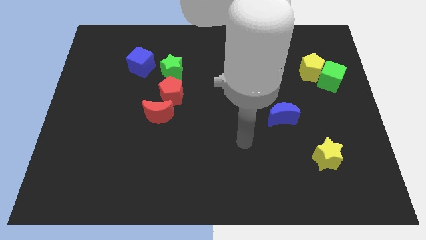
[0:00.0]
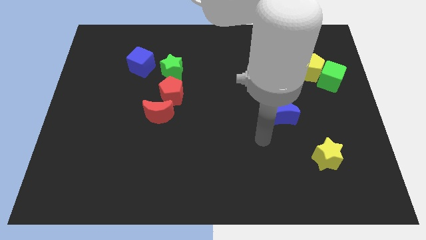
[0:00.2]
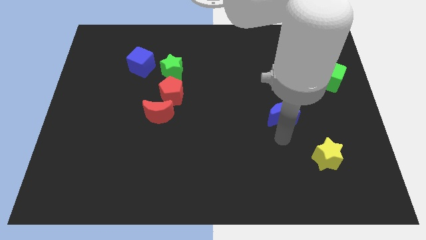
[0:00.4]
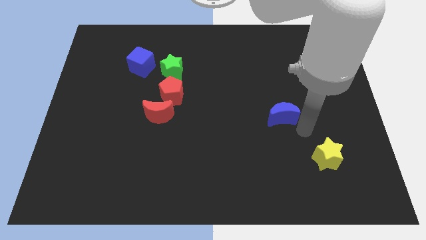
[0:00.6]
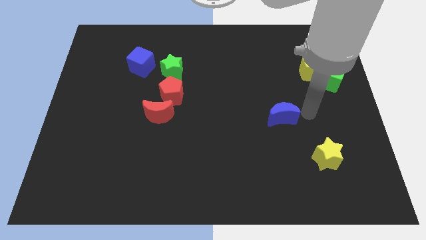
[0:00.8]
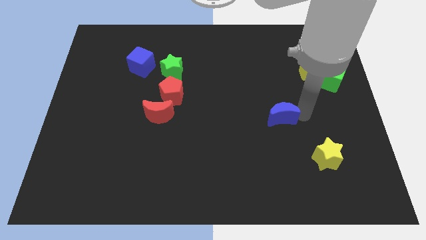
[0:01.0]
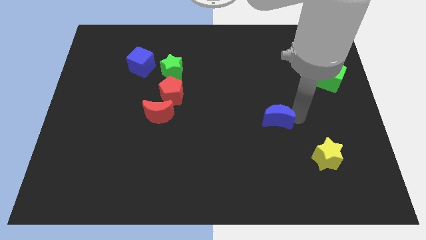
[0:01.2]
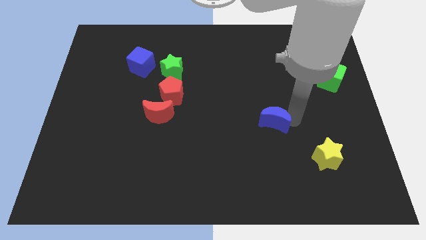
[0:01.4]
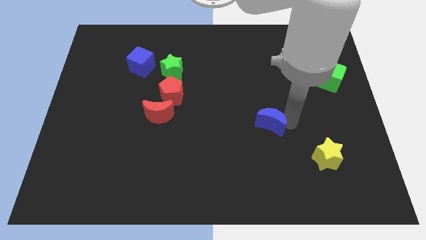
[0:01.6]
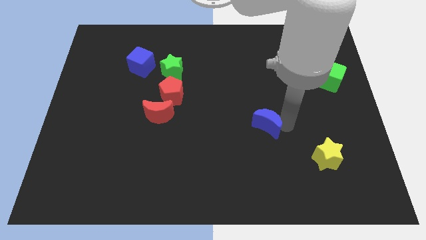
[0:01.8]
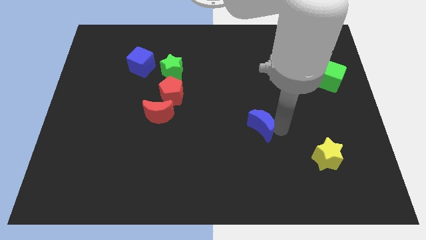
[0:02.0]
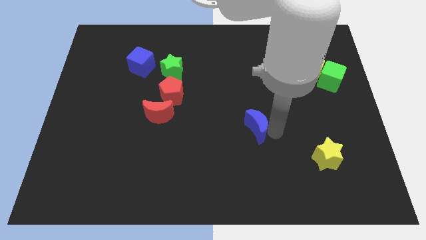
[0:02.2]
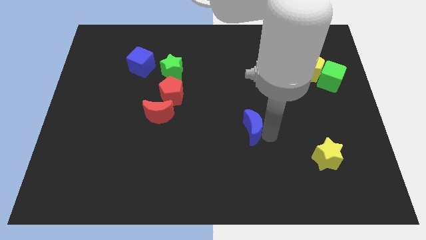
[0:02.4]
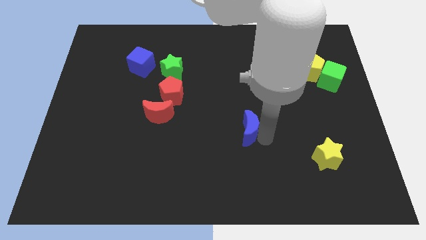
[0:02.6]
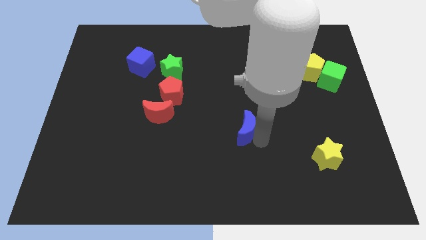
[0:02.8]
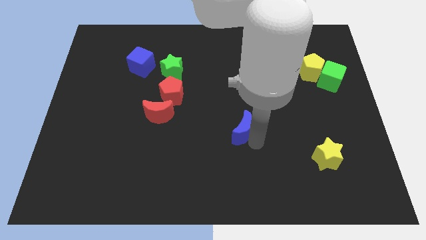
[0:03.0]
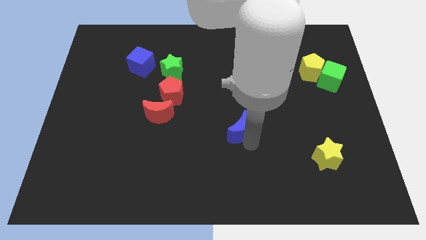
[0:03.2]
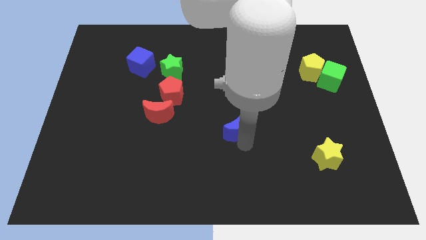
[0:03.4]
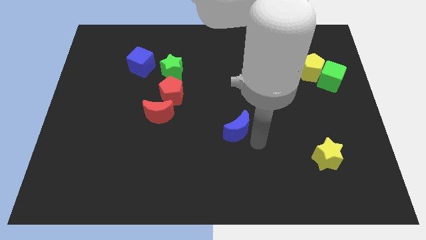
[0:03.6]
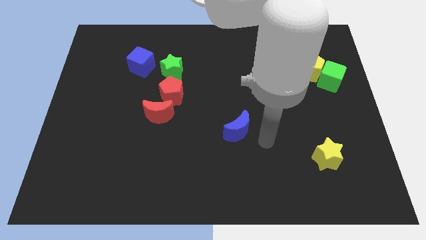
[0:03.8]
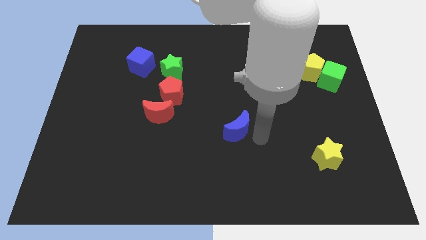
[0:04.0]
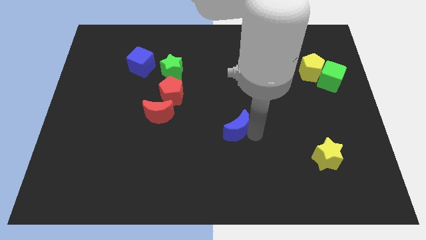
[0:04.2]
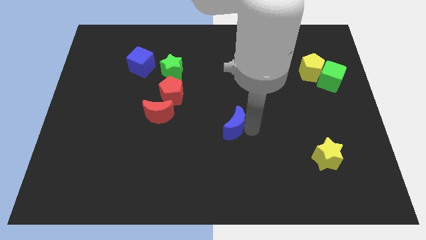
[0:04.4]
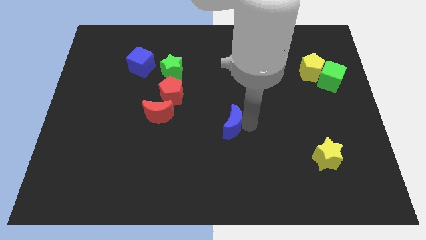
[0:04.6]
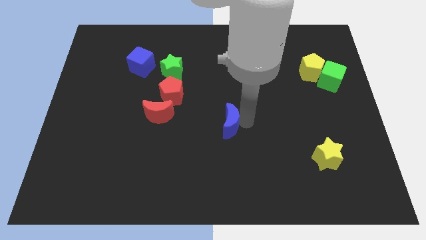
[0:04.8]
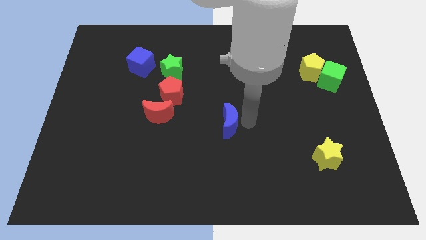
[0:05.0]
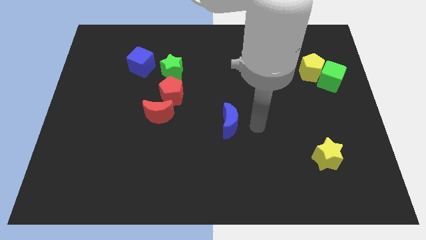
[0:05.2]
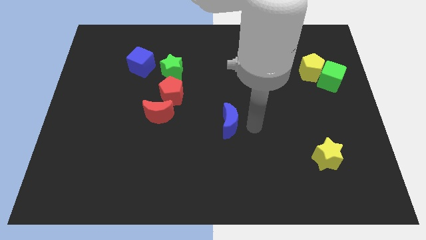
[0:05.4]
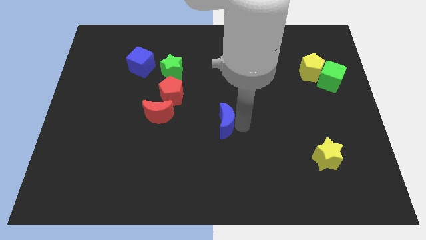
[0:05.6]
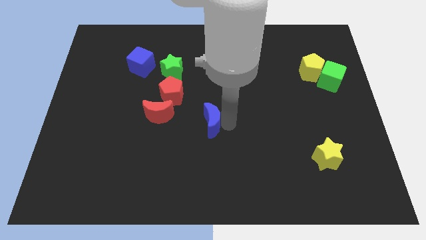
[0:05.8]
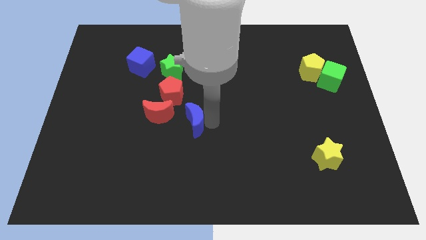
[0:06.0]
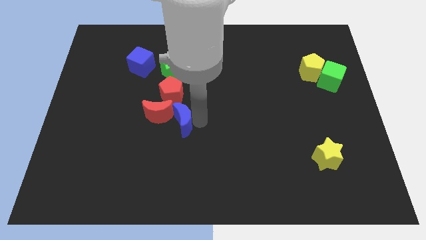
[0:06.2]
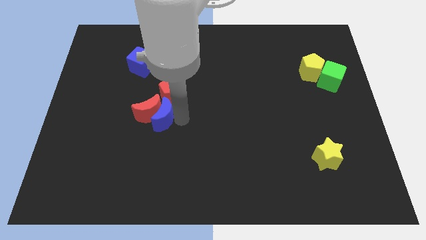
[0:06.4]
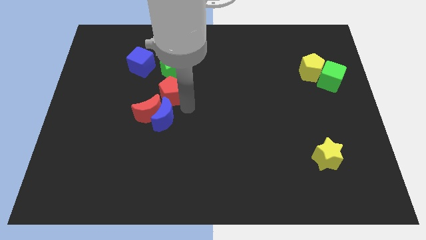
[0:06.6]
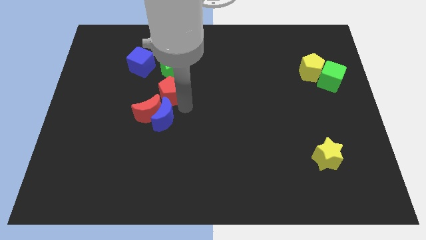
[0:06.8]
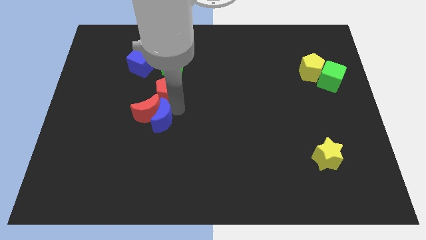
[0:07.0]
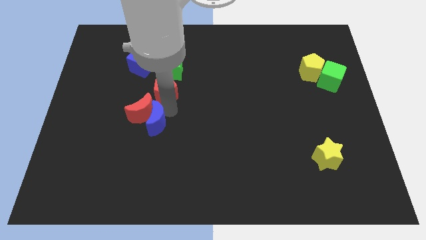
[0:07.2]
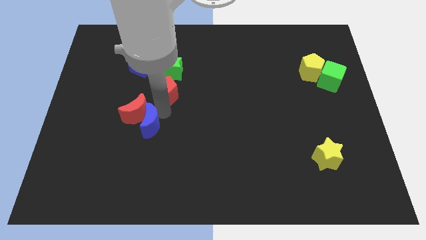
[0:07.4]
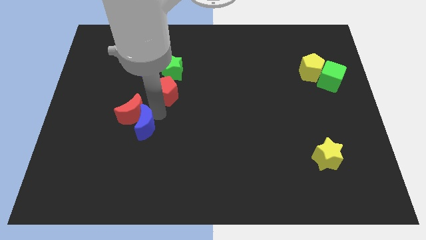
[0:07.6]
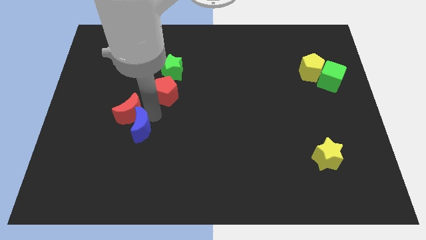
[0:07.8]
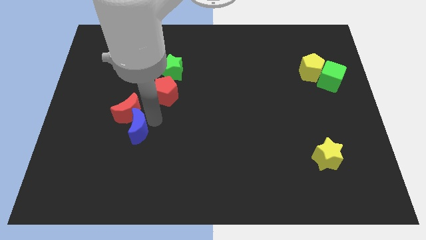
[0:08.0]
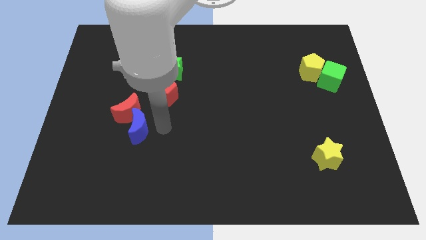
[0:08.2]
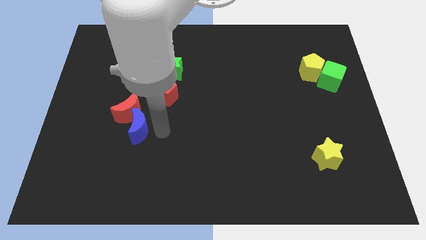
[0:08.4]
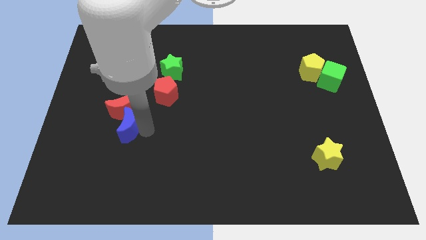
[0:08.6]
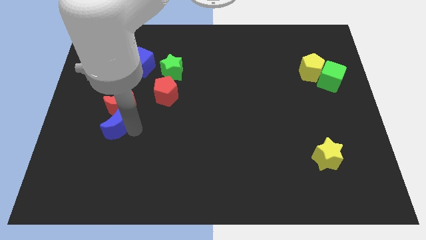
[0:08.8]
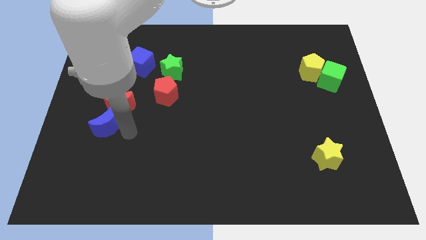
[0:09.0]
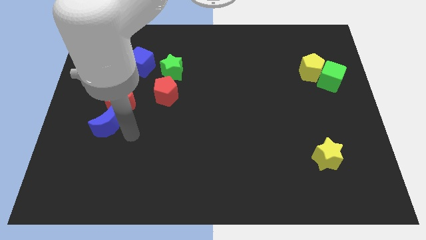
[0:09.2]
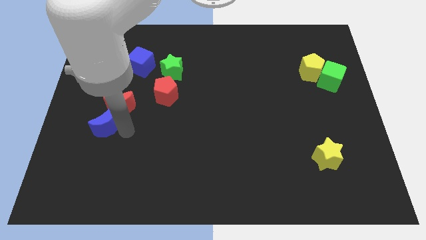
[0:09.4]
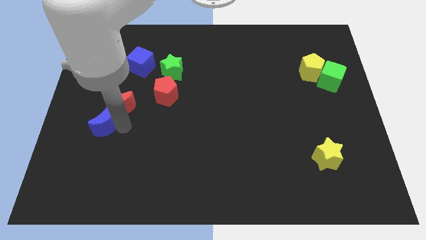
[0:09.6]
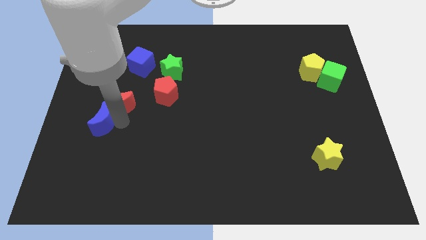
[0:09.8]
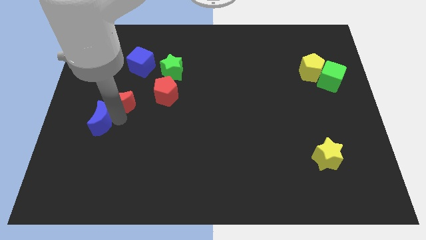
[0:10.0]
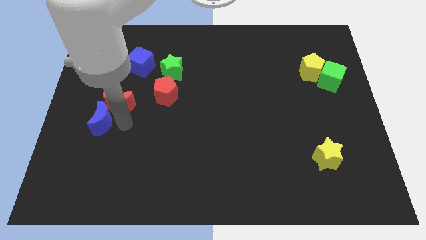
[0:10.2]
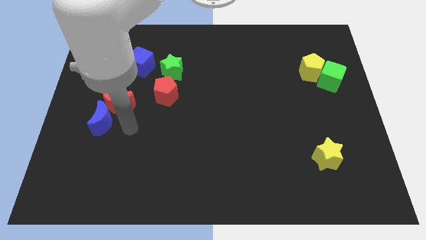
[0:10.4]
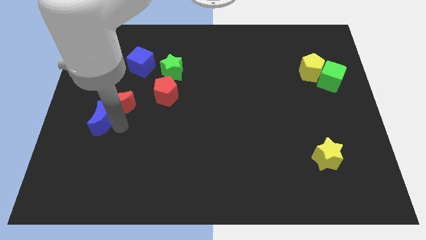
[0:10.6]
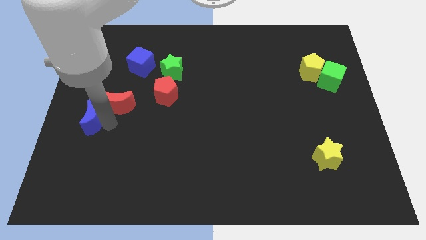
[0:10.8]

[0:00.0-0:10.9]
put the blue moon to the left side
